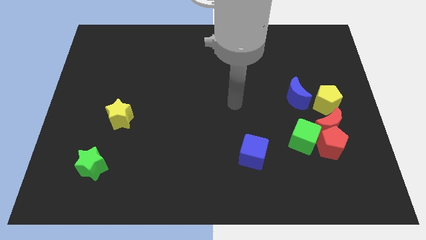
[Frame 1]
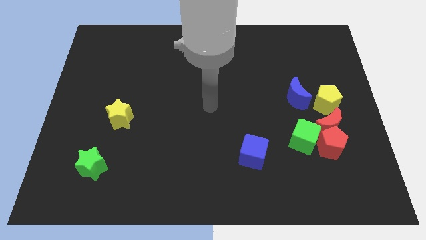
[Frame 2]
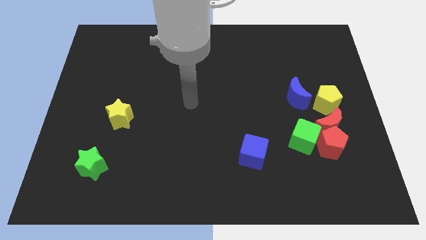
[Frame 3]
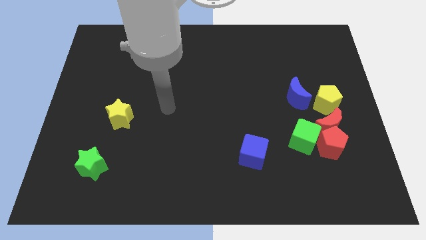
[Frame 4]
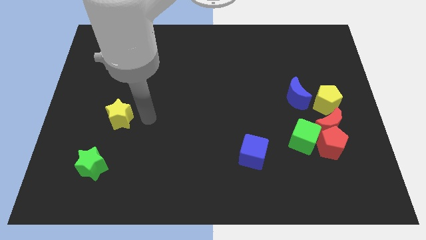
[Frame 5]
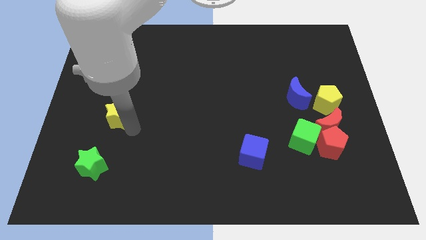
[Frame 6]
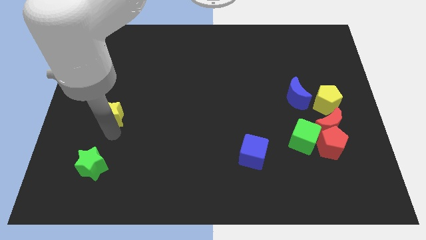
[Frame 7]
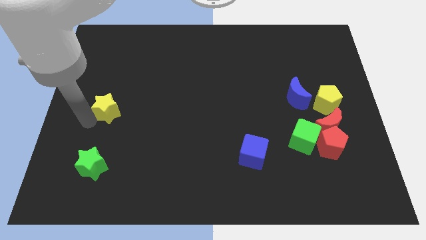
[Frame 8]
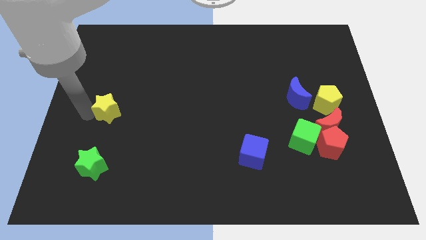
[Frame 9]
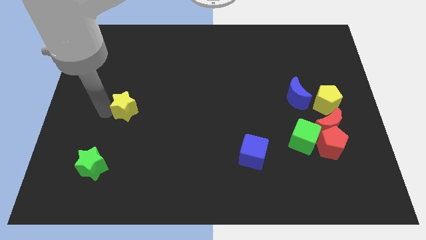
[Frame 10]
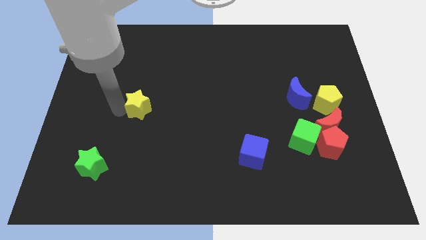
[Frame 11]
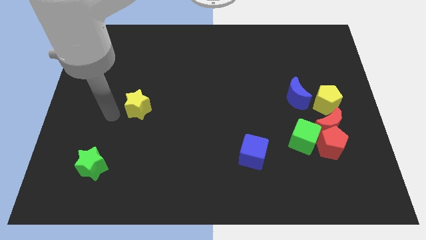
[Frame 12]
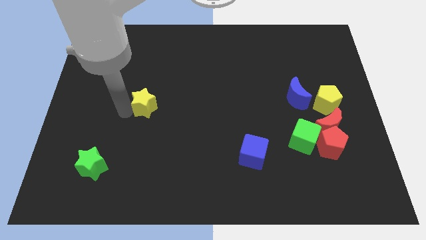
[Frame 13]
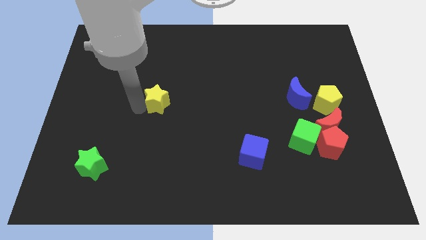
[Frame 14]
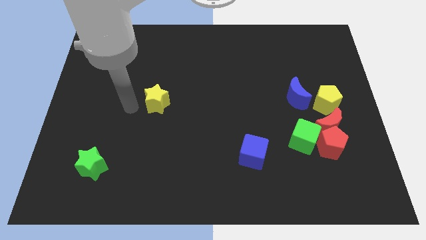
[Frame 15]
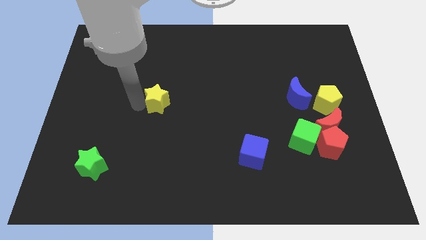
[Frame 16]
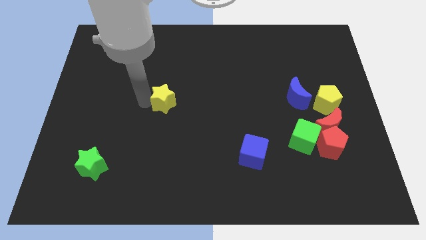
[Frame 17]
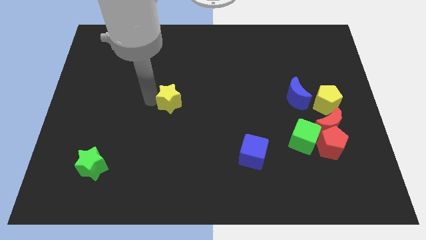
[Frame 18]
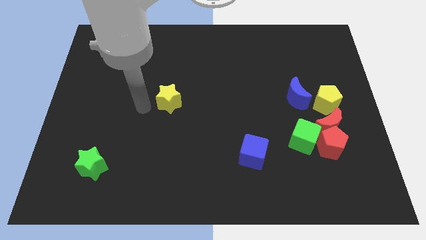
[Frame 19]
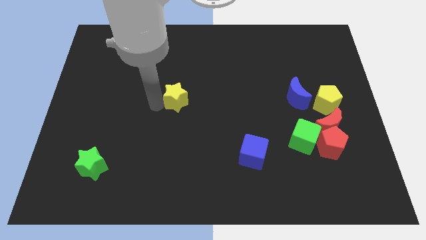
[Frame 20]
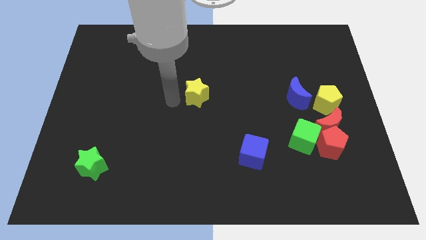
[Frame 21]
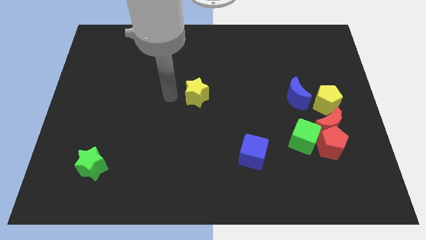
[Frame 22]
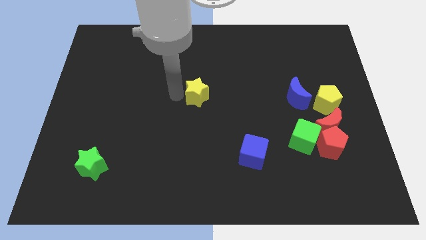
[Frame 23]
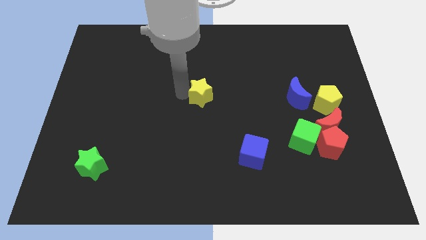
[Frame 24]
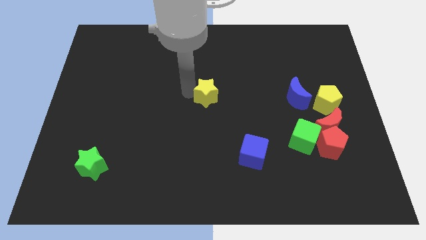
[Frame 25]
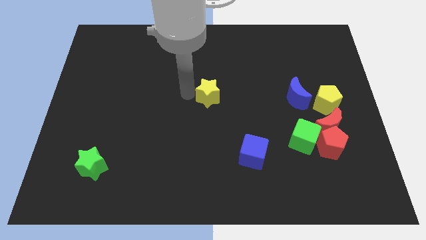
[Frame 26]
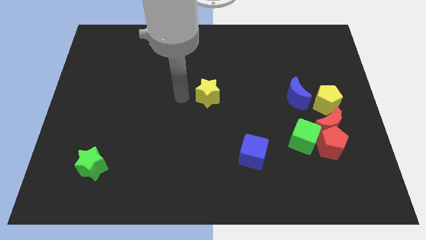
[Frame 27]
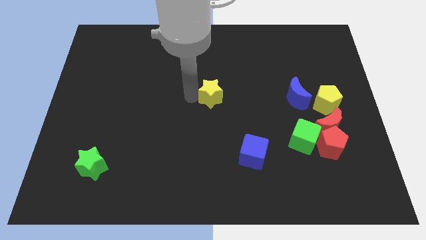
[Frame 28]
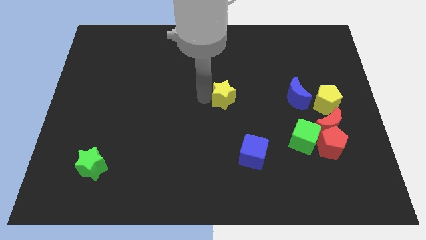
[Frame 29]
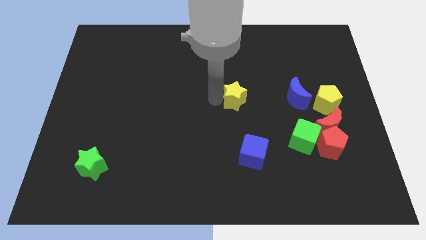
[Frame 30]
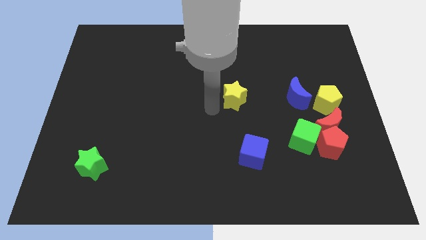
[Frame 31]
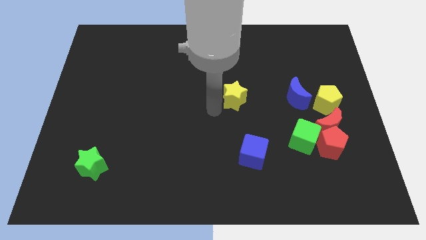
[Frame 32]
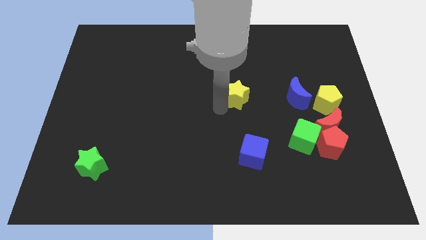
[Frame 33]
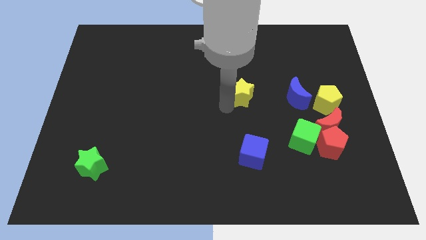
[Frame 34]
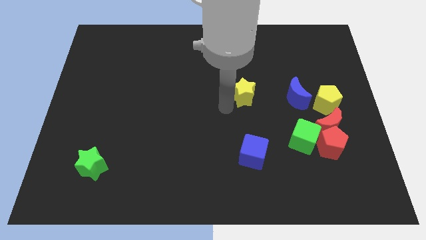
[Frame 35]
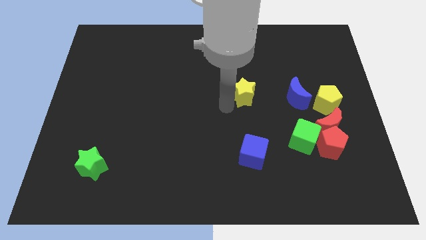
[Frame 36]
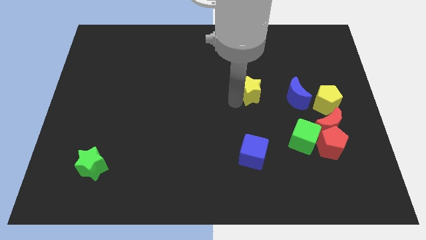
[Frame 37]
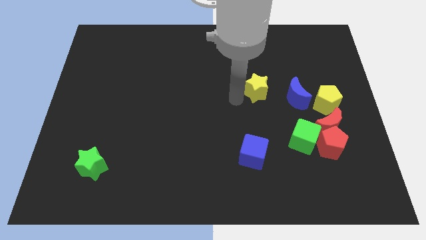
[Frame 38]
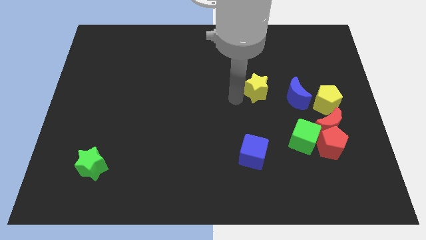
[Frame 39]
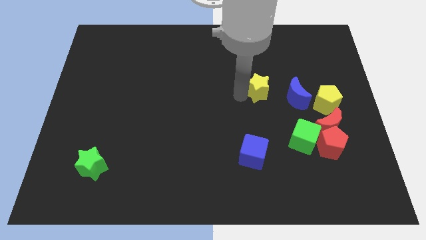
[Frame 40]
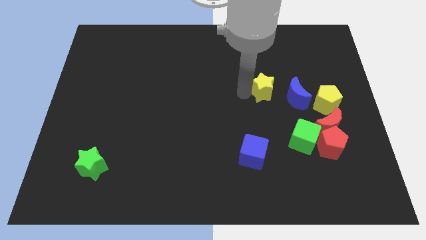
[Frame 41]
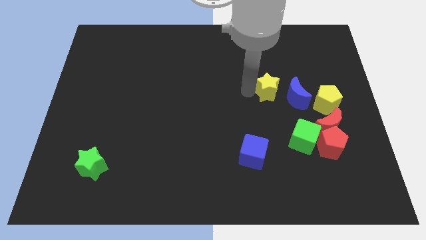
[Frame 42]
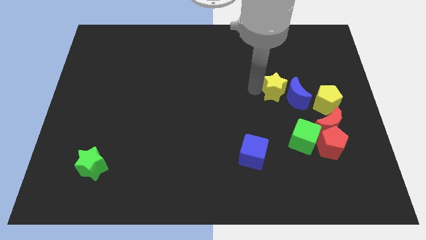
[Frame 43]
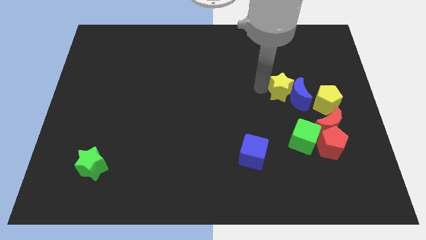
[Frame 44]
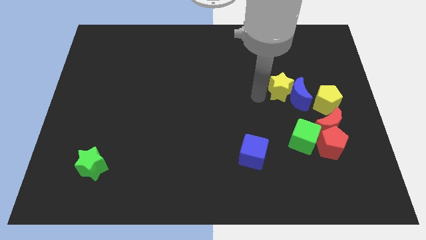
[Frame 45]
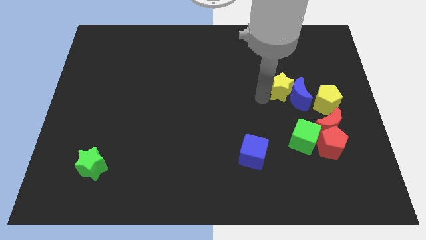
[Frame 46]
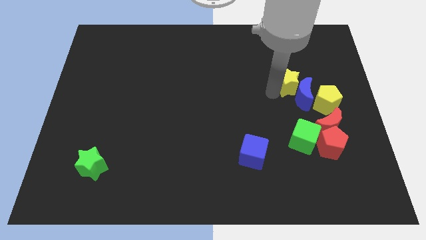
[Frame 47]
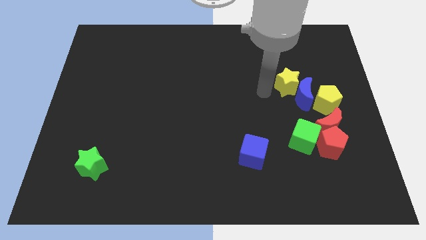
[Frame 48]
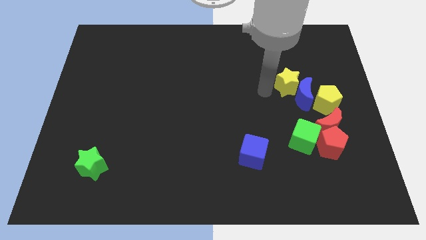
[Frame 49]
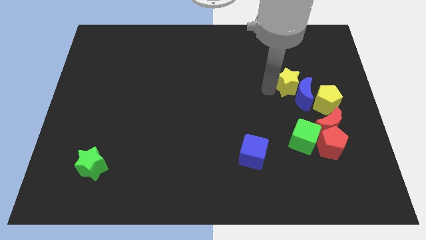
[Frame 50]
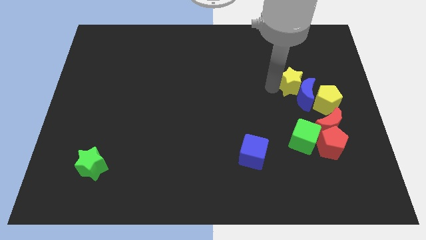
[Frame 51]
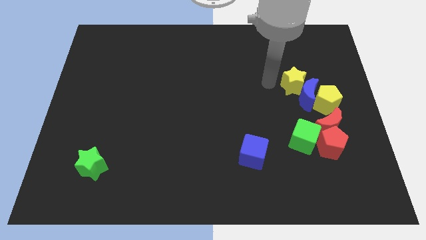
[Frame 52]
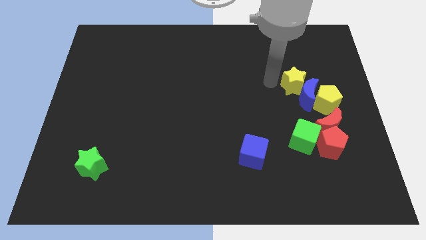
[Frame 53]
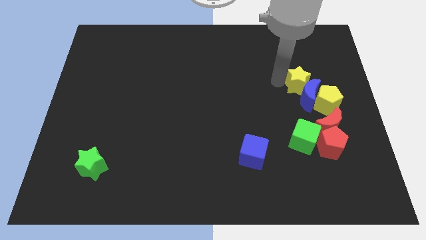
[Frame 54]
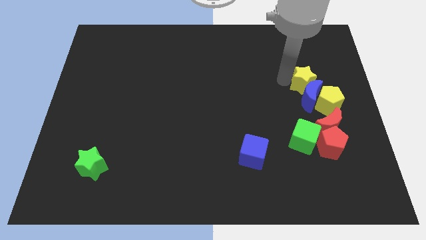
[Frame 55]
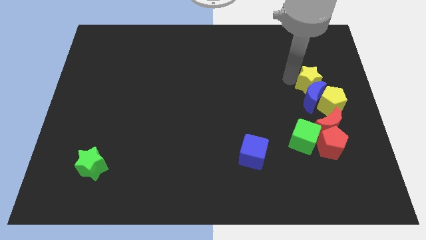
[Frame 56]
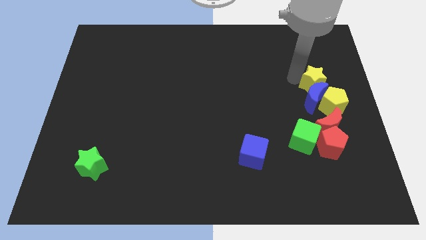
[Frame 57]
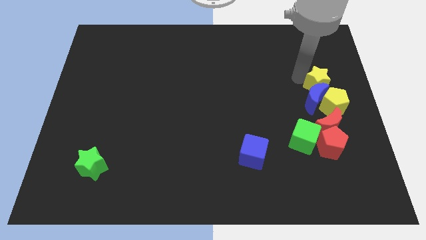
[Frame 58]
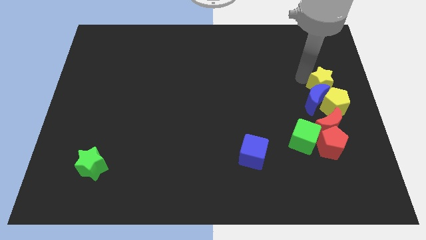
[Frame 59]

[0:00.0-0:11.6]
move the yellow star to the right side
